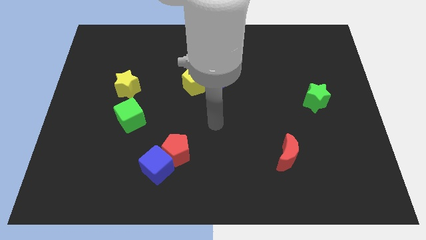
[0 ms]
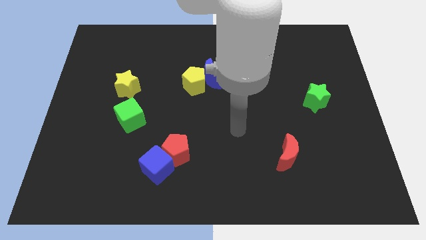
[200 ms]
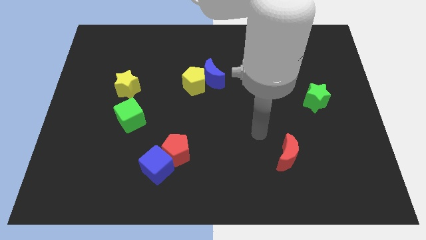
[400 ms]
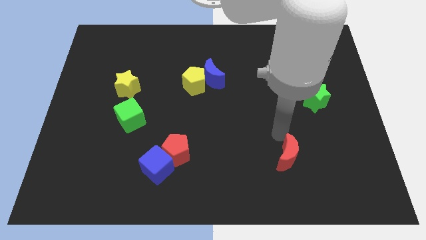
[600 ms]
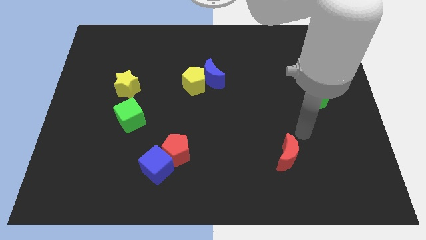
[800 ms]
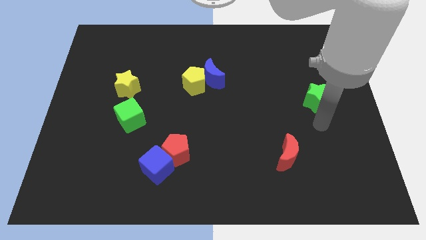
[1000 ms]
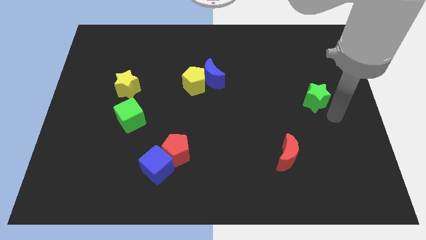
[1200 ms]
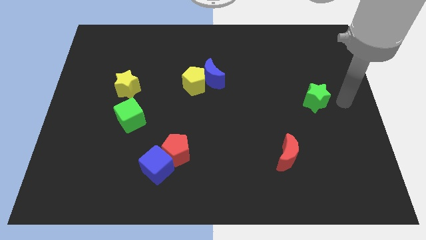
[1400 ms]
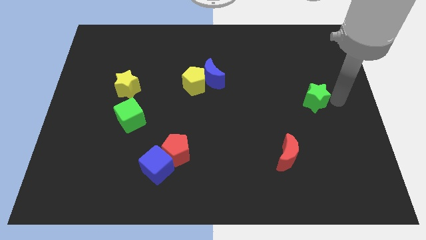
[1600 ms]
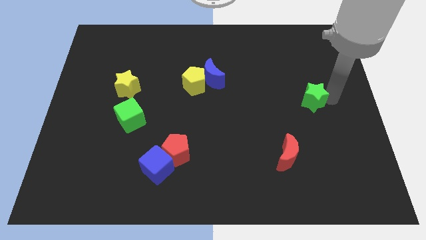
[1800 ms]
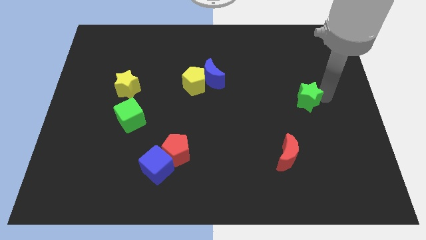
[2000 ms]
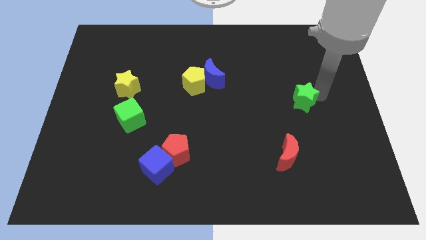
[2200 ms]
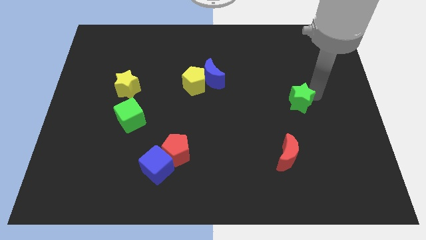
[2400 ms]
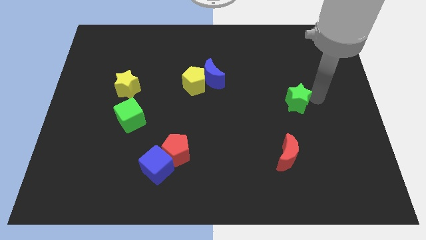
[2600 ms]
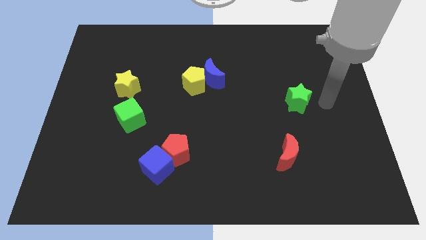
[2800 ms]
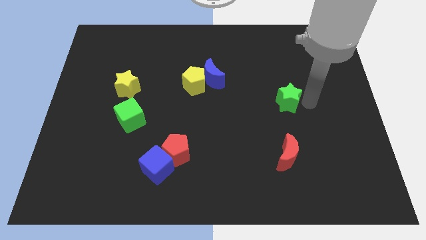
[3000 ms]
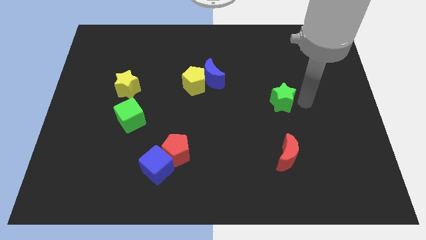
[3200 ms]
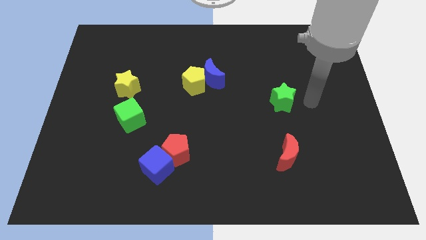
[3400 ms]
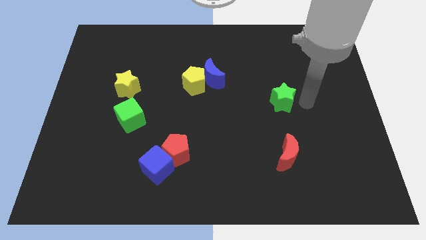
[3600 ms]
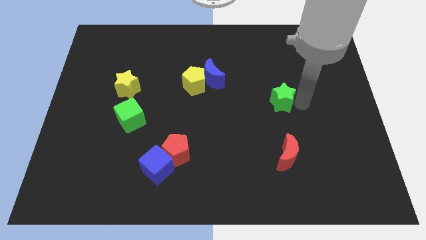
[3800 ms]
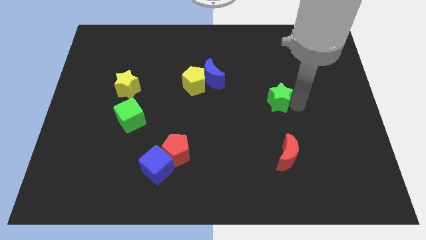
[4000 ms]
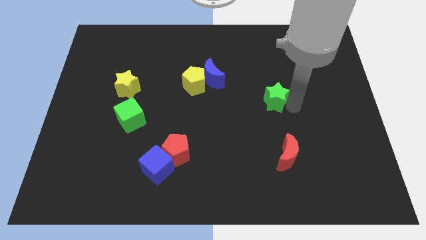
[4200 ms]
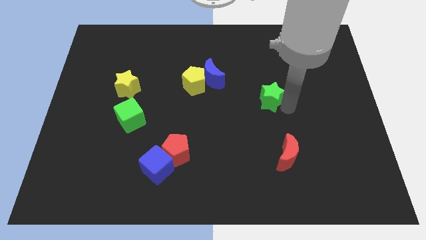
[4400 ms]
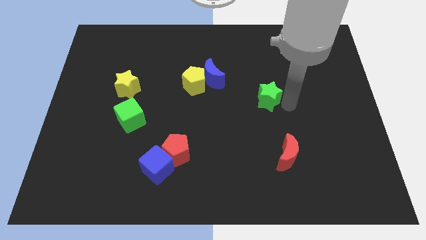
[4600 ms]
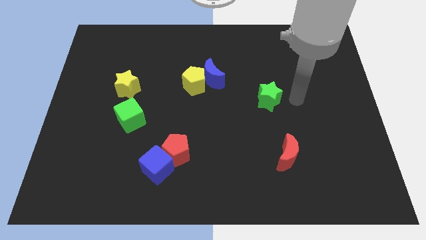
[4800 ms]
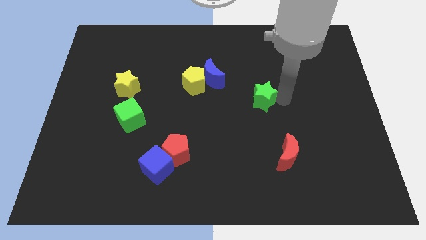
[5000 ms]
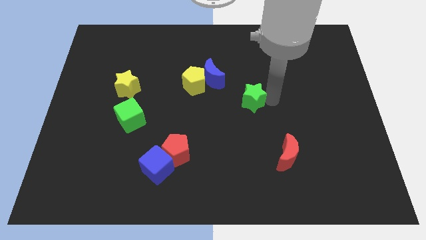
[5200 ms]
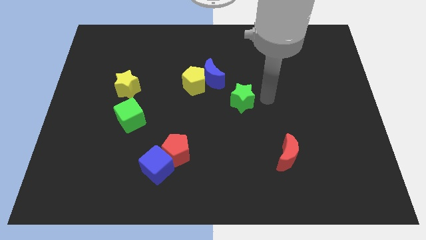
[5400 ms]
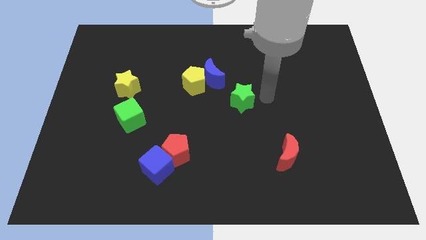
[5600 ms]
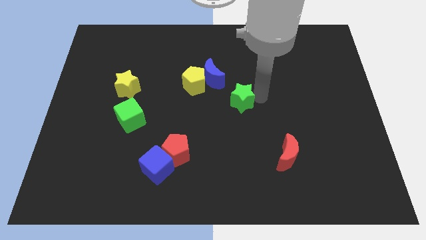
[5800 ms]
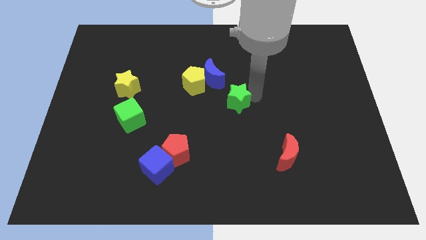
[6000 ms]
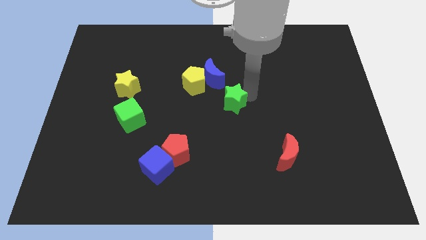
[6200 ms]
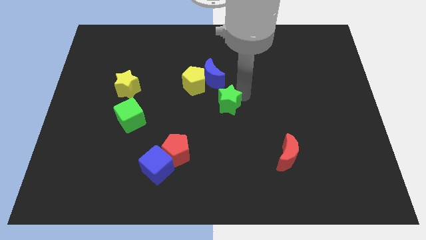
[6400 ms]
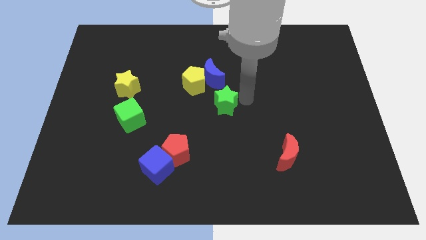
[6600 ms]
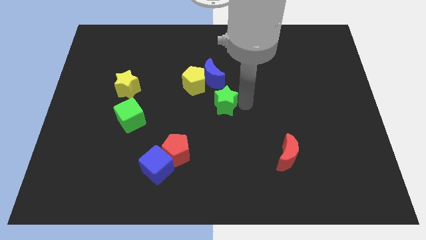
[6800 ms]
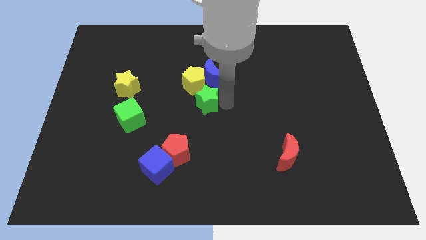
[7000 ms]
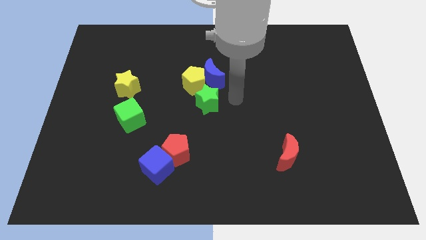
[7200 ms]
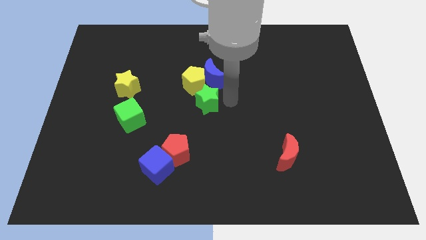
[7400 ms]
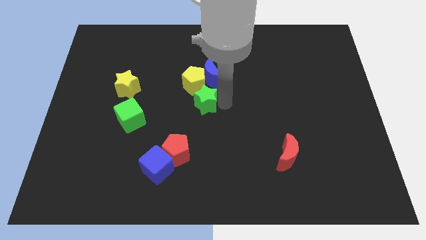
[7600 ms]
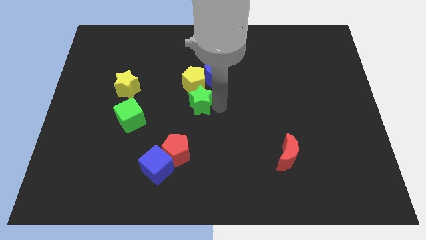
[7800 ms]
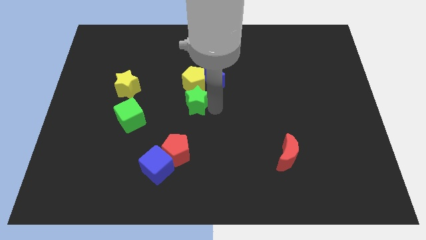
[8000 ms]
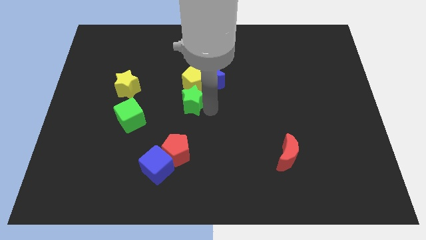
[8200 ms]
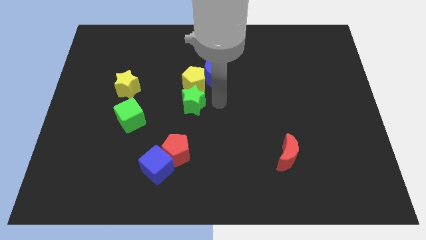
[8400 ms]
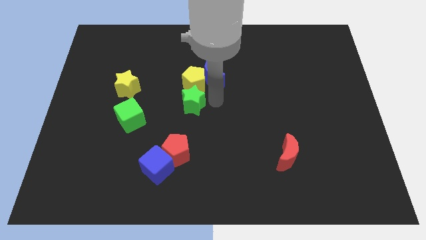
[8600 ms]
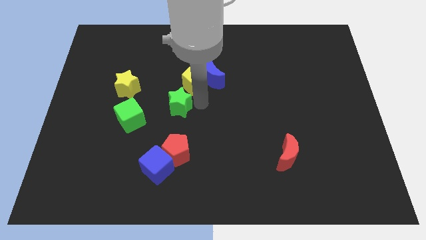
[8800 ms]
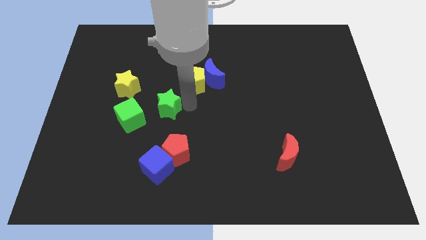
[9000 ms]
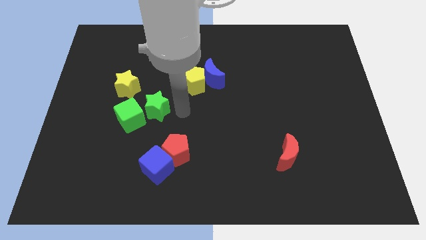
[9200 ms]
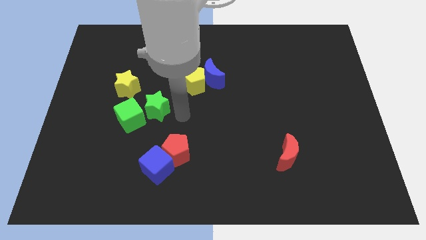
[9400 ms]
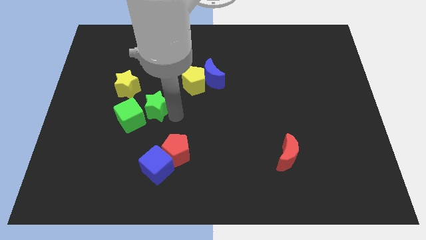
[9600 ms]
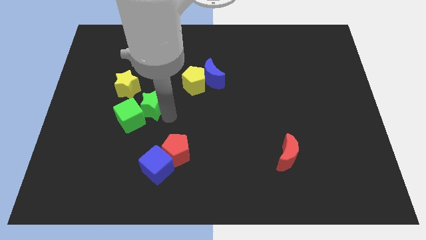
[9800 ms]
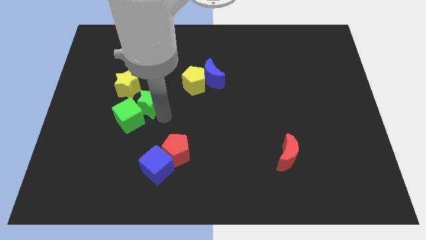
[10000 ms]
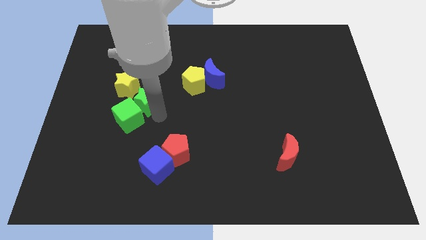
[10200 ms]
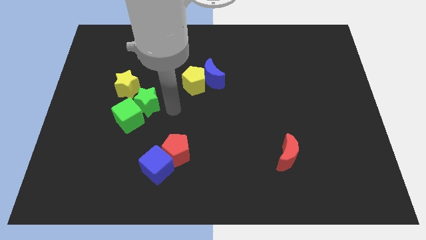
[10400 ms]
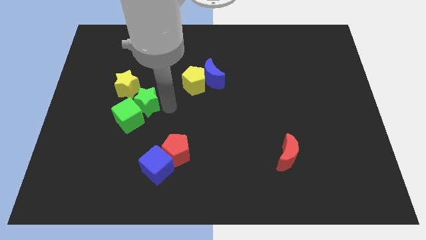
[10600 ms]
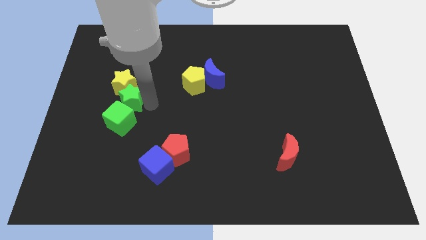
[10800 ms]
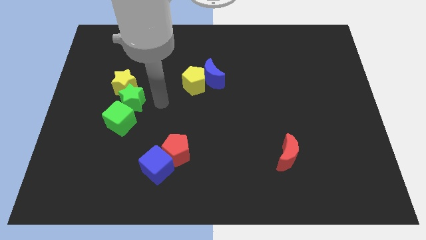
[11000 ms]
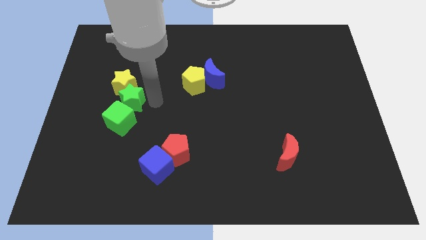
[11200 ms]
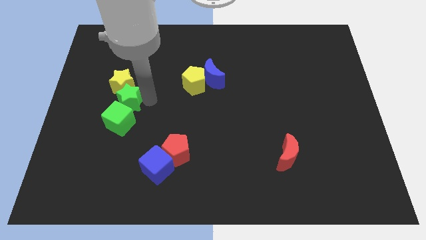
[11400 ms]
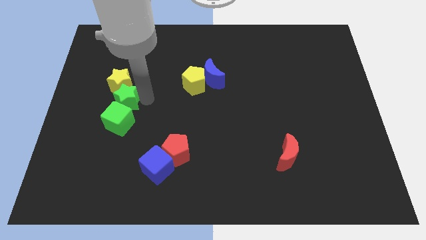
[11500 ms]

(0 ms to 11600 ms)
move the green star diagonally up and to the left of the green cube
